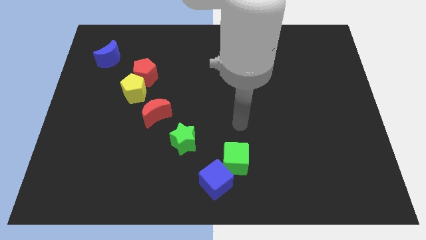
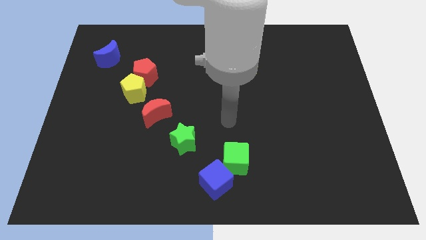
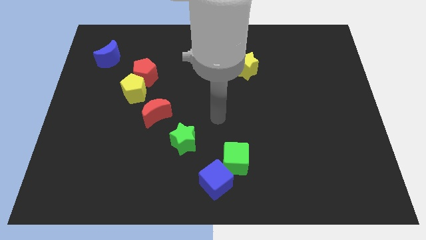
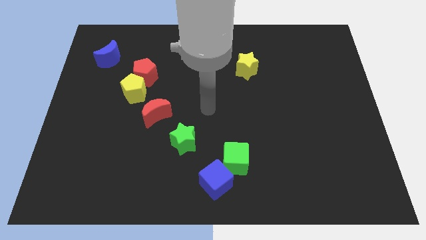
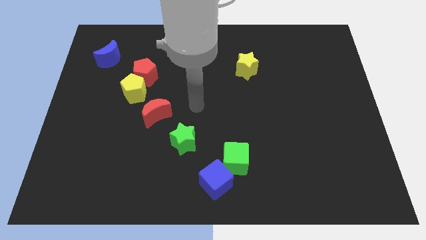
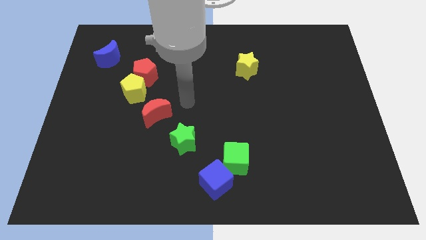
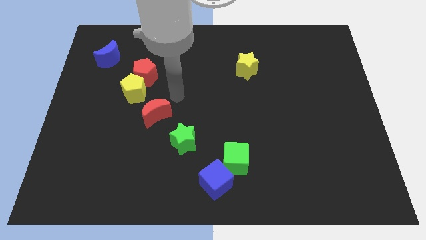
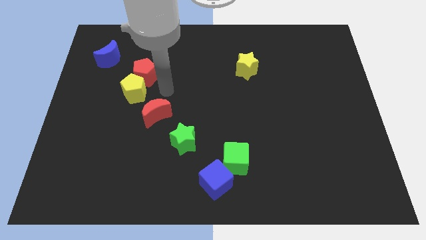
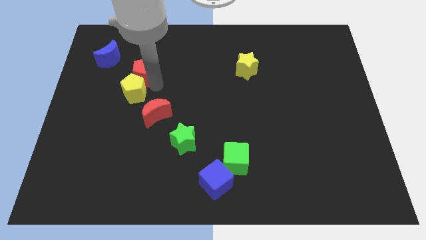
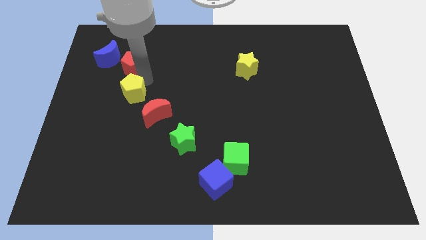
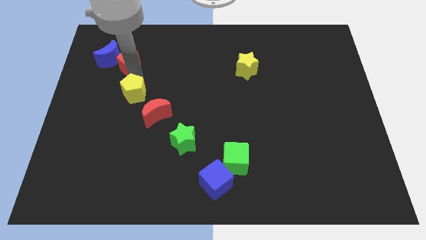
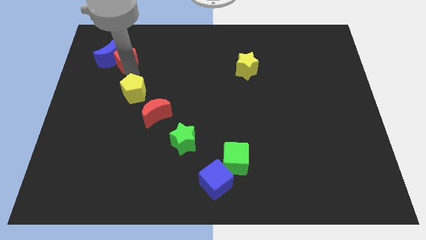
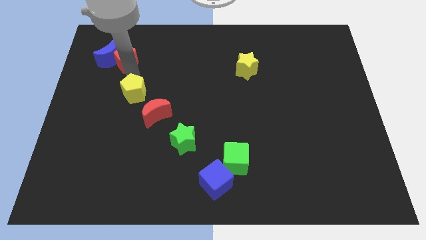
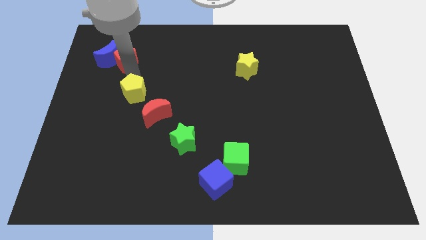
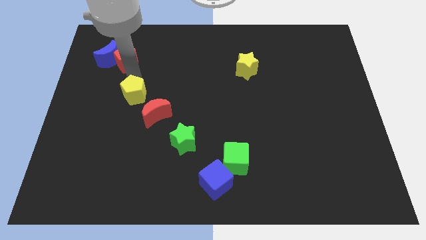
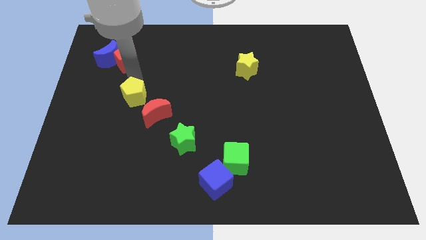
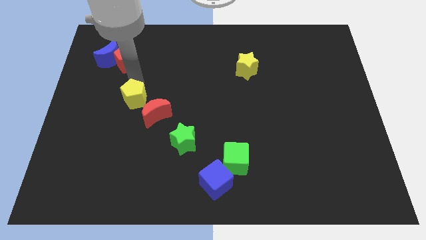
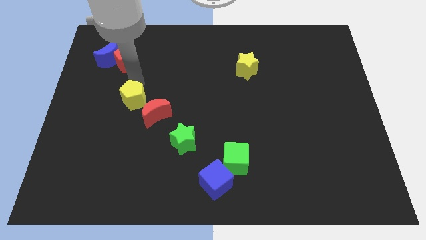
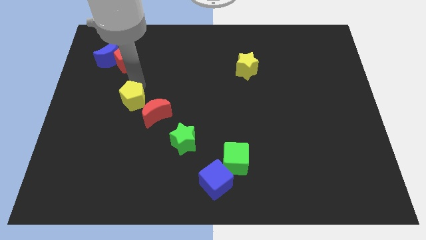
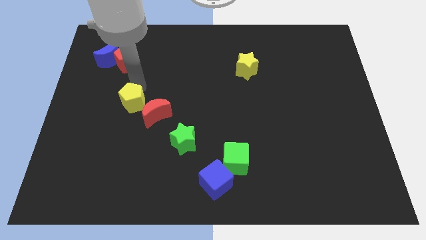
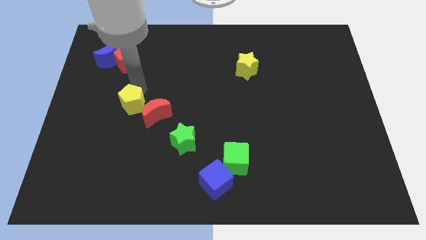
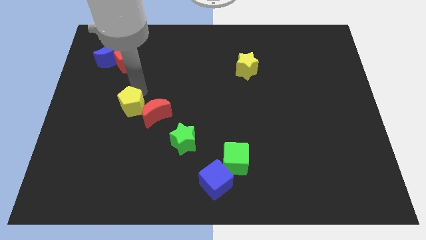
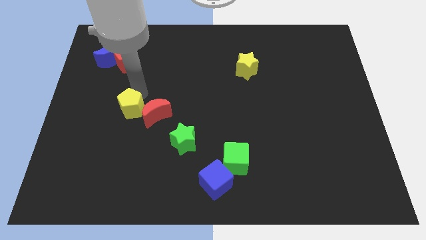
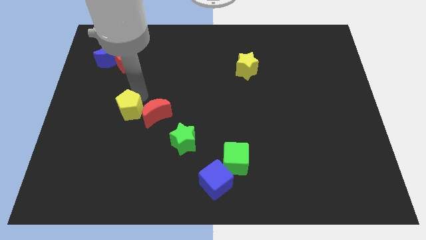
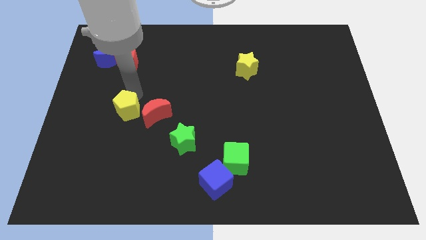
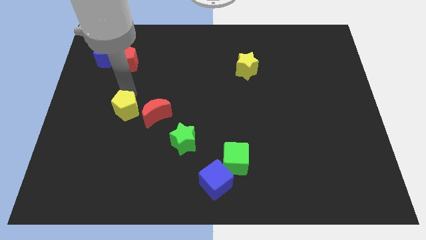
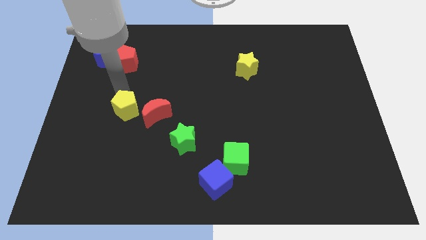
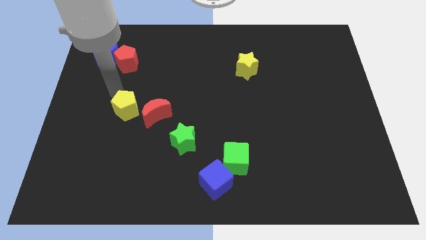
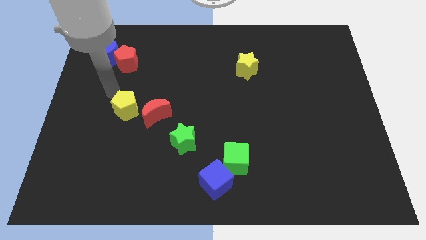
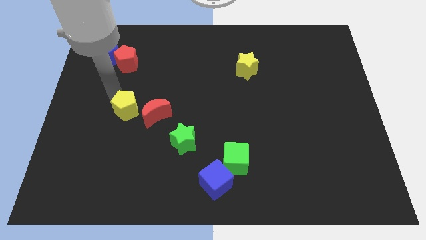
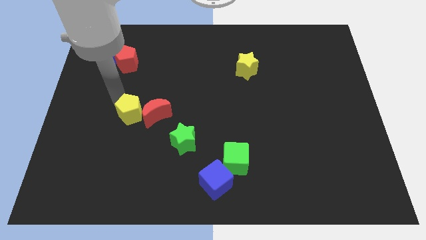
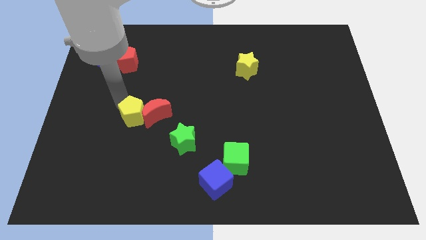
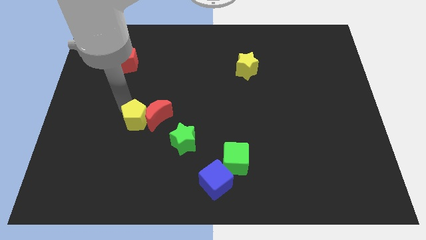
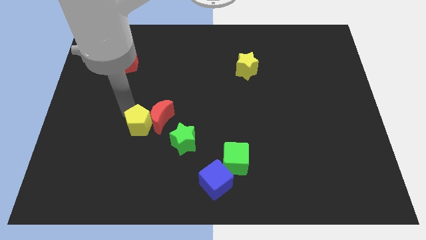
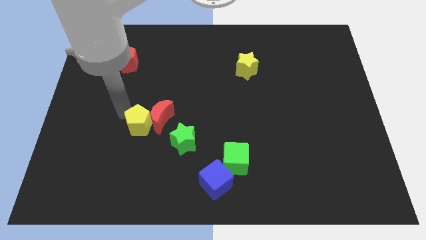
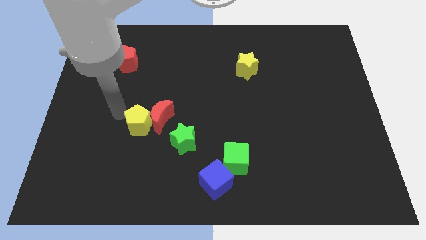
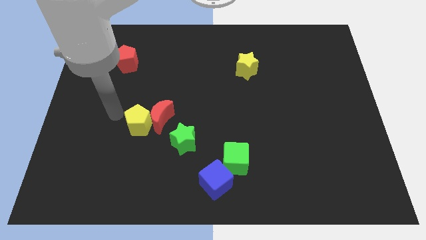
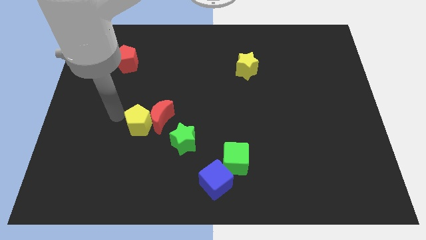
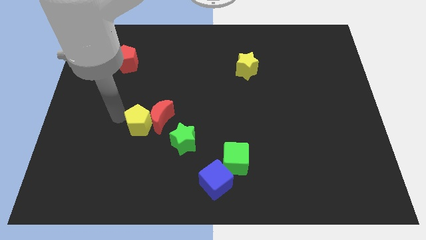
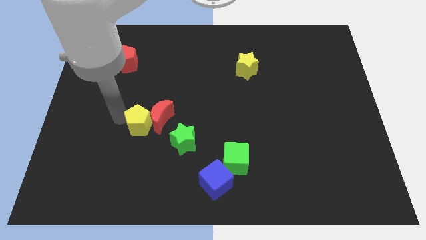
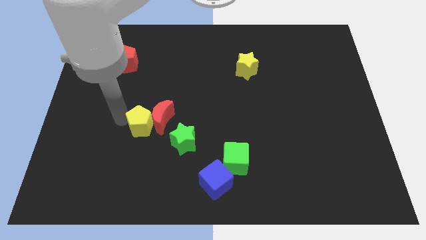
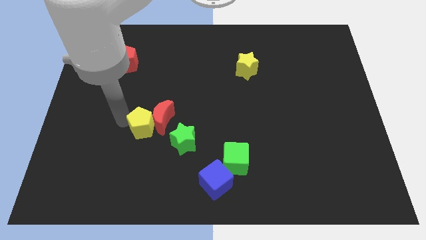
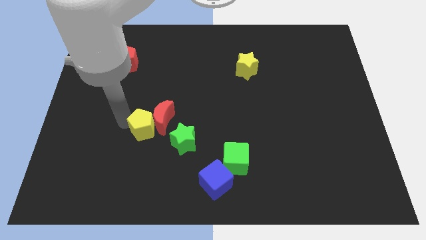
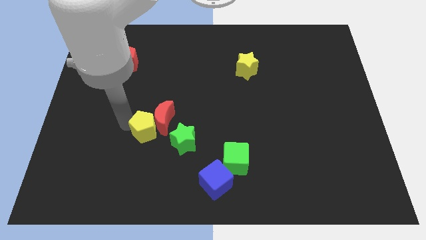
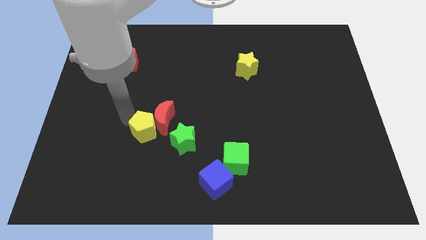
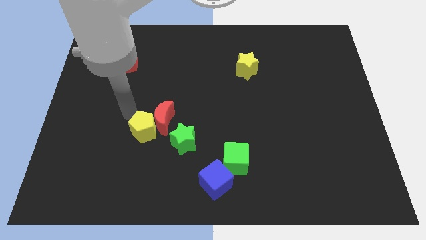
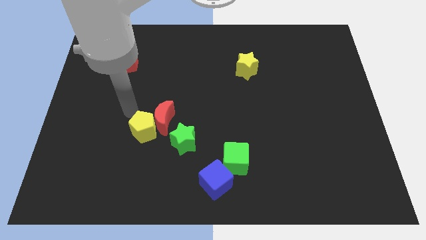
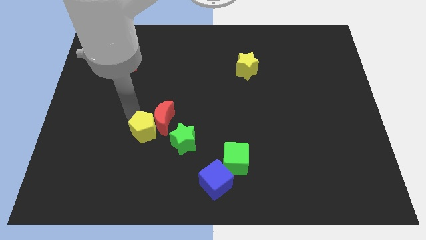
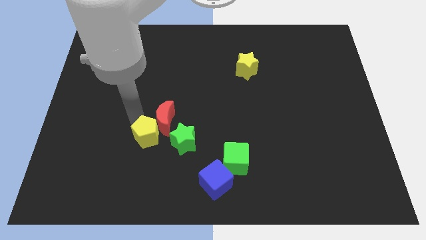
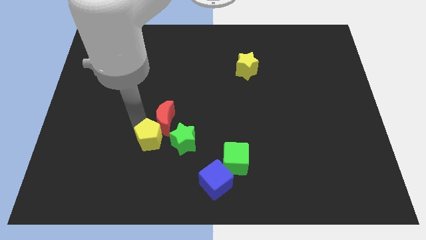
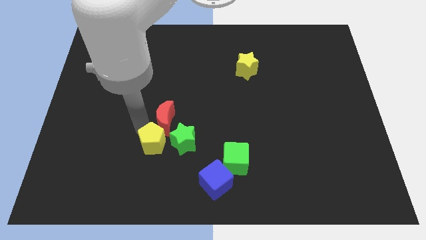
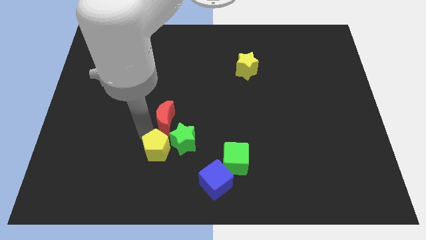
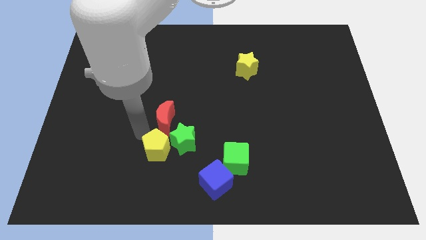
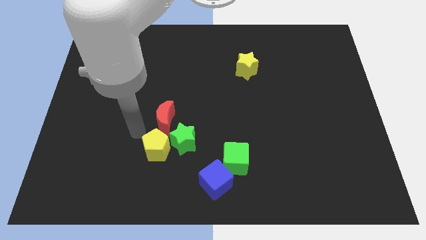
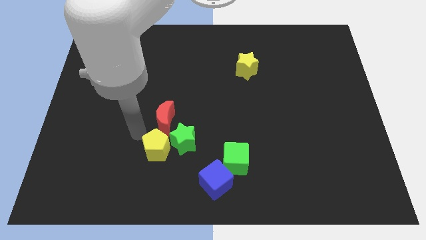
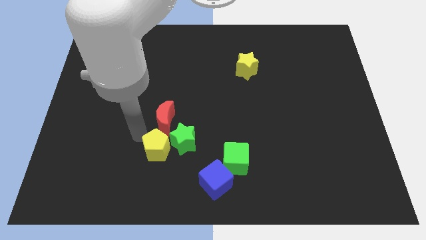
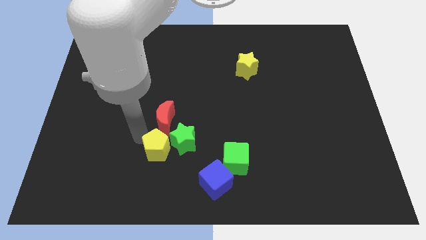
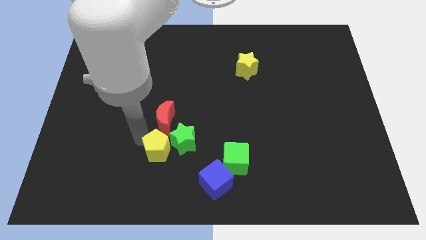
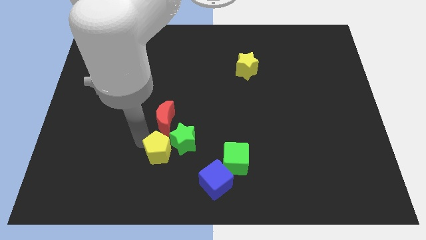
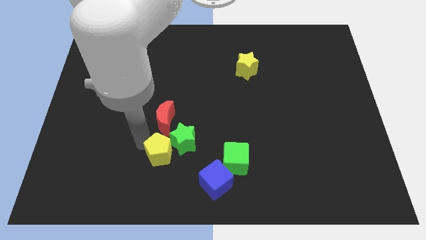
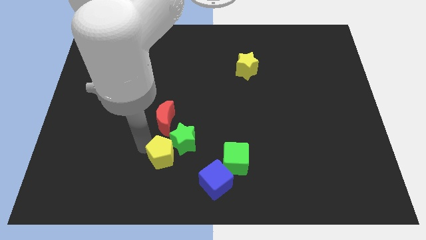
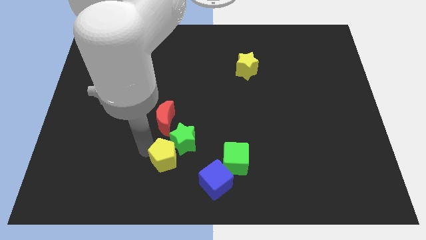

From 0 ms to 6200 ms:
slide the yellow pentagon to the bottom of the green star
